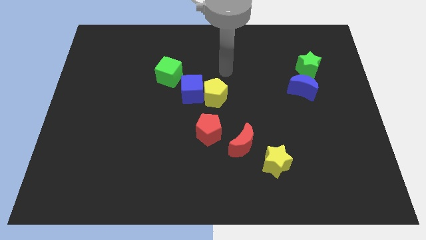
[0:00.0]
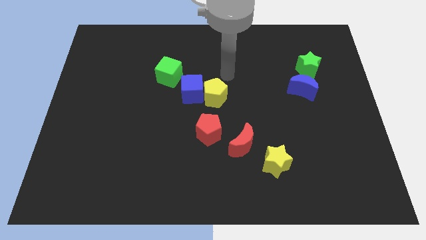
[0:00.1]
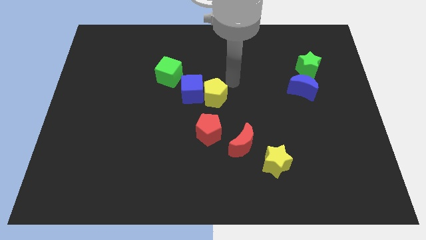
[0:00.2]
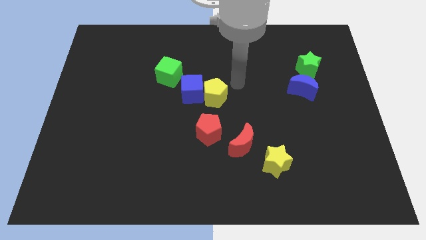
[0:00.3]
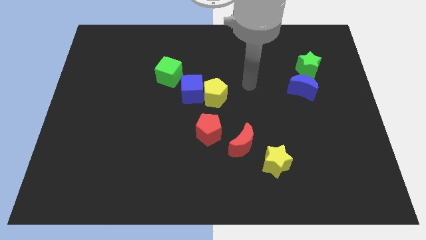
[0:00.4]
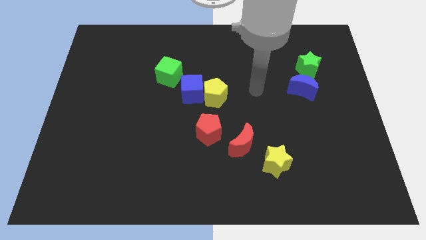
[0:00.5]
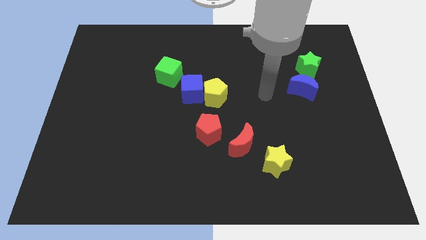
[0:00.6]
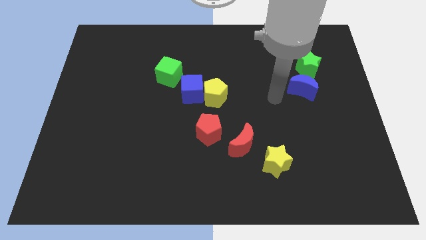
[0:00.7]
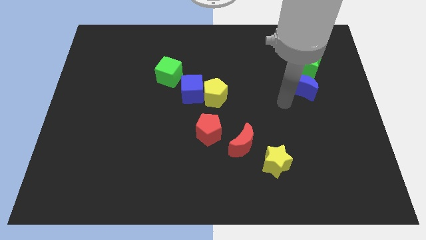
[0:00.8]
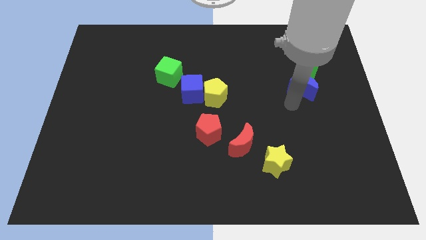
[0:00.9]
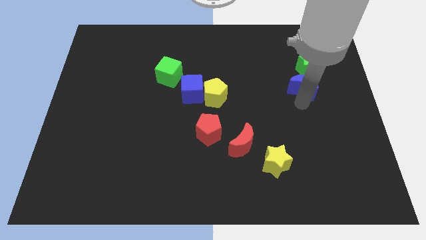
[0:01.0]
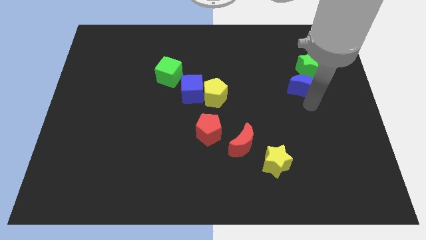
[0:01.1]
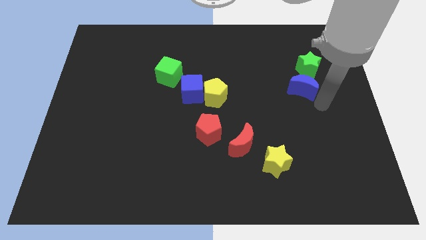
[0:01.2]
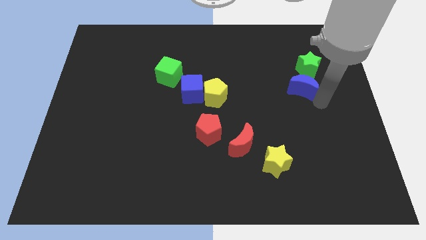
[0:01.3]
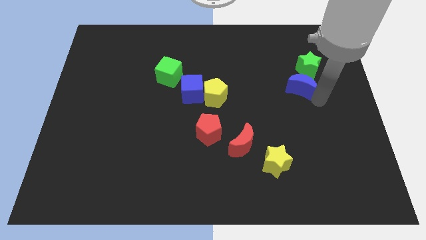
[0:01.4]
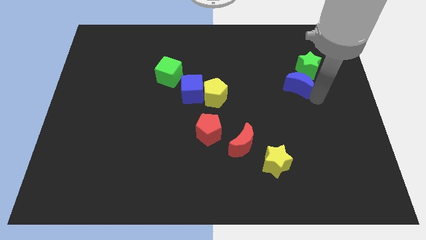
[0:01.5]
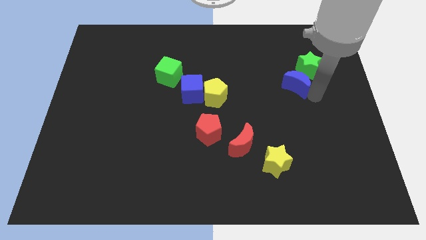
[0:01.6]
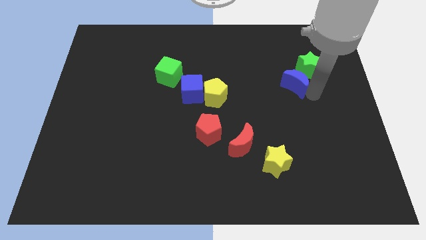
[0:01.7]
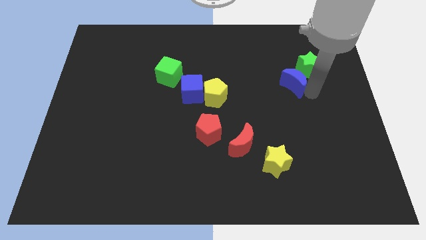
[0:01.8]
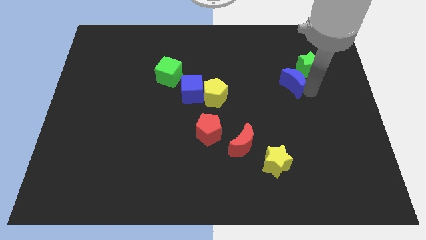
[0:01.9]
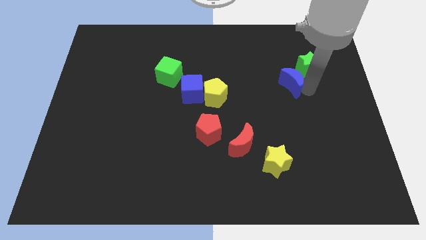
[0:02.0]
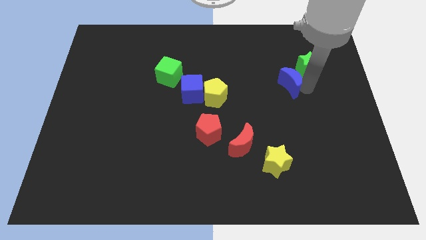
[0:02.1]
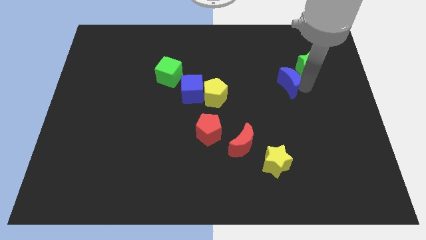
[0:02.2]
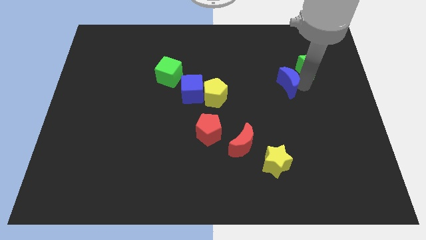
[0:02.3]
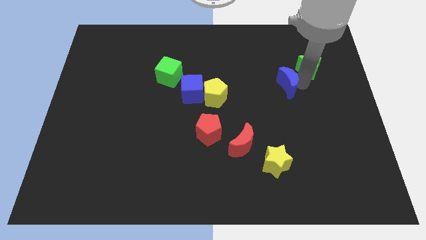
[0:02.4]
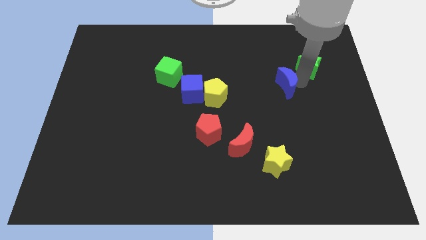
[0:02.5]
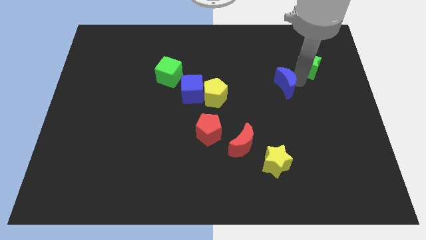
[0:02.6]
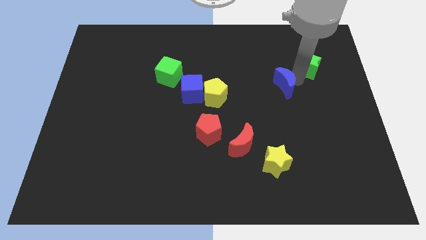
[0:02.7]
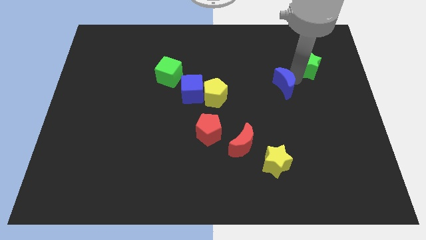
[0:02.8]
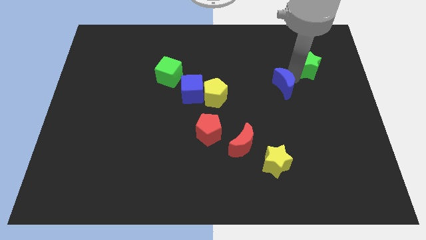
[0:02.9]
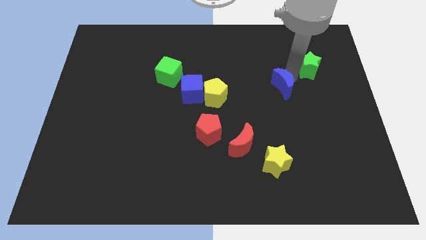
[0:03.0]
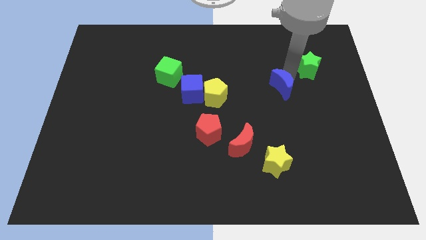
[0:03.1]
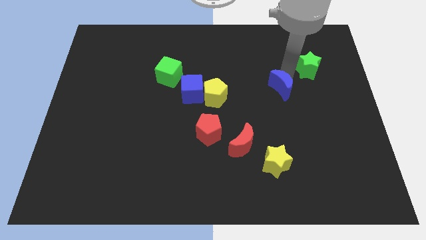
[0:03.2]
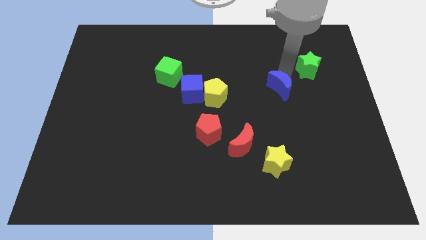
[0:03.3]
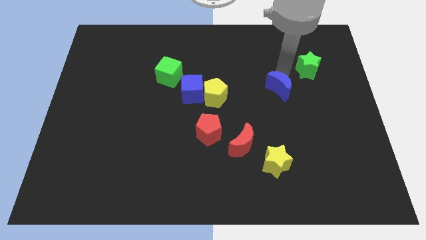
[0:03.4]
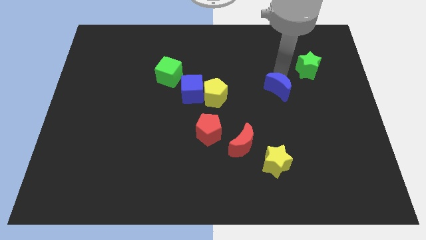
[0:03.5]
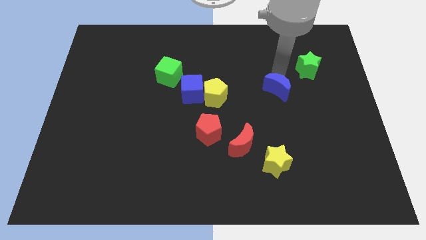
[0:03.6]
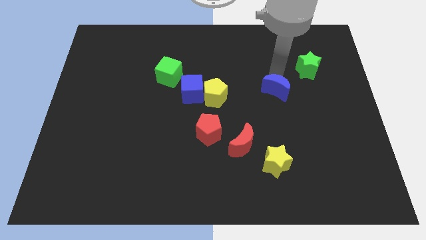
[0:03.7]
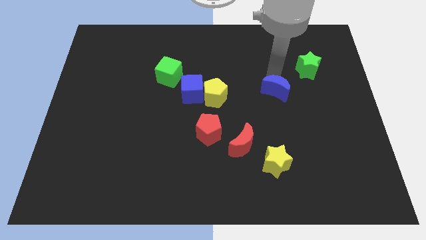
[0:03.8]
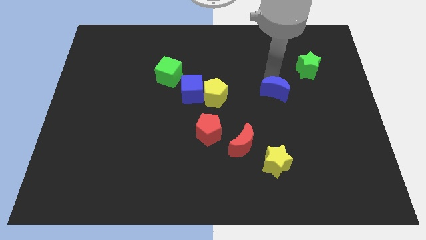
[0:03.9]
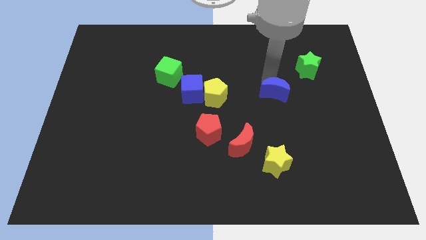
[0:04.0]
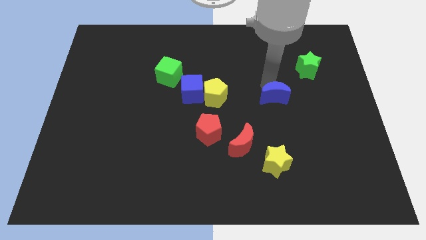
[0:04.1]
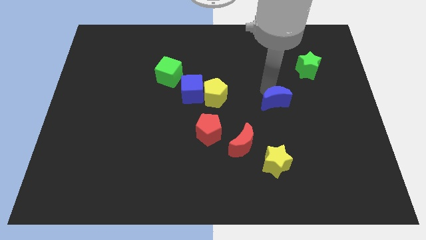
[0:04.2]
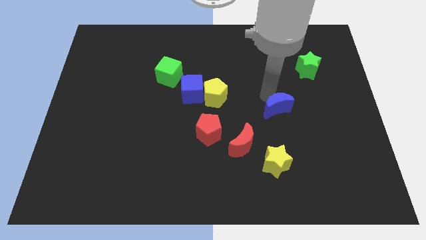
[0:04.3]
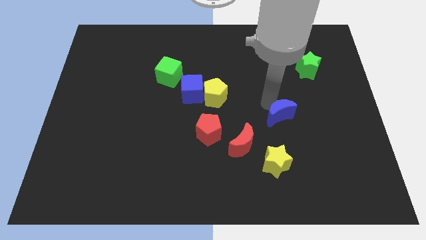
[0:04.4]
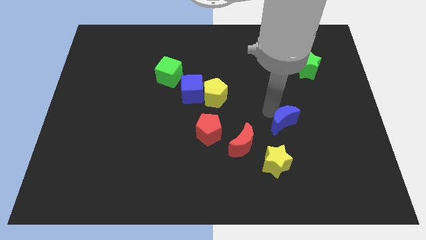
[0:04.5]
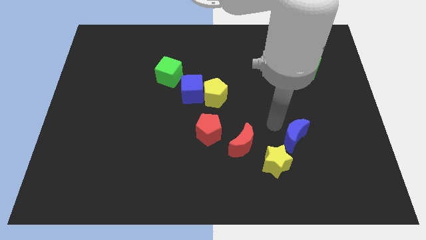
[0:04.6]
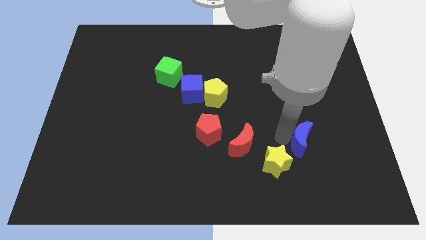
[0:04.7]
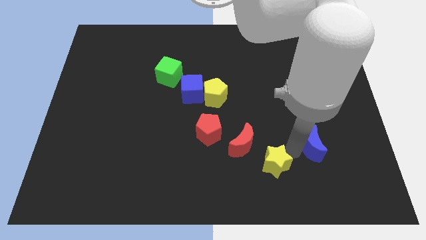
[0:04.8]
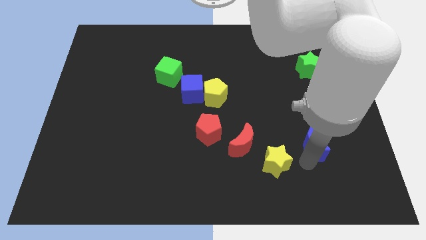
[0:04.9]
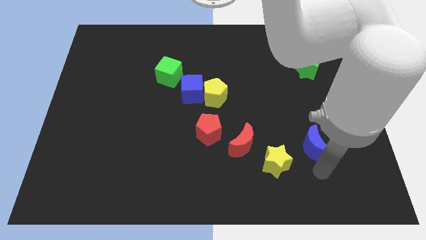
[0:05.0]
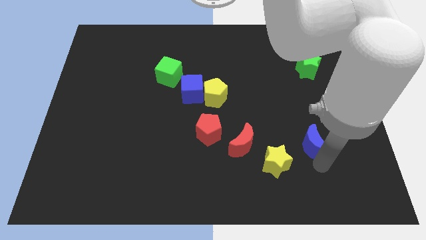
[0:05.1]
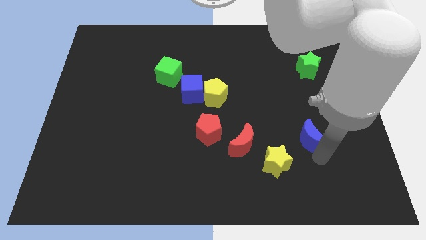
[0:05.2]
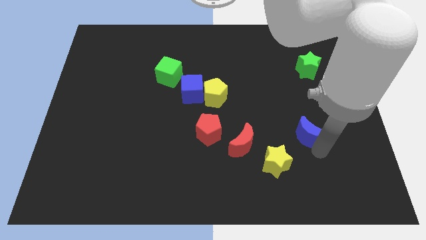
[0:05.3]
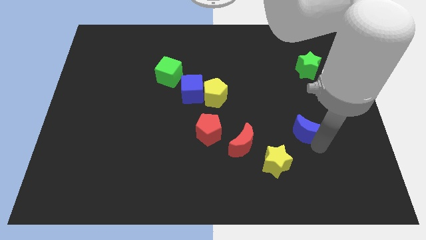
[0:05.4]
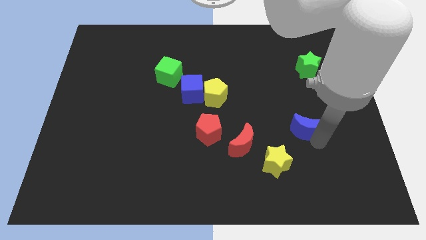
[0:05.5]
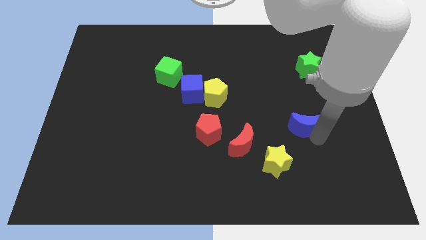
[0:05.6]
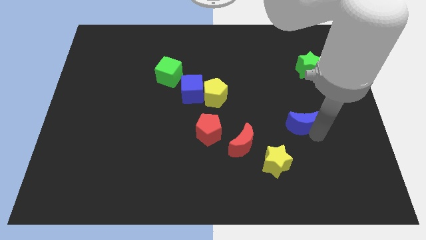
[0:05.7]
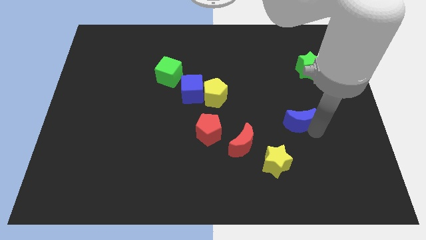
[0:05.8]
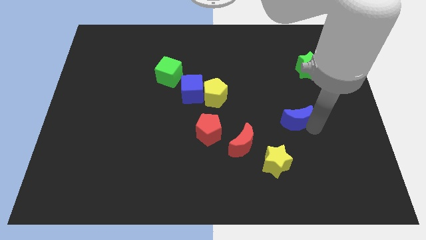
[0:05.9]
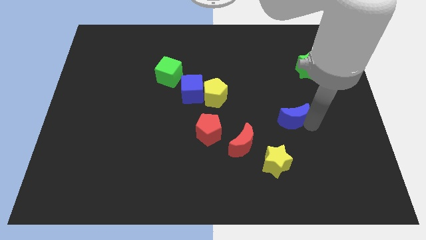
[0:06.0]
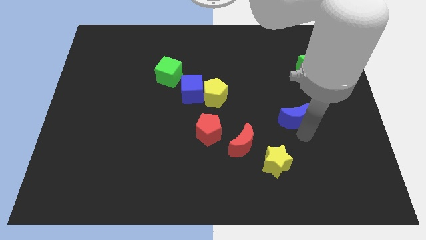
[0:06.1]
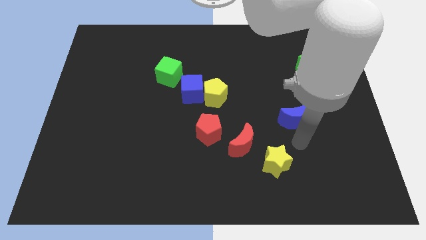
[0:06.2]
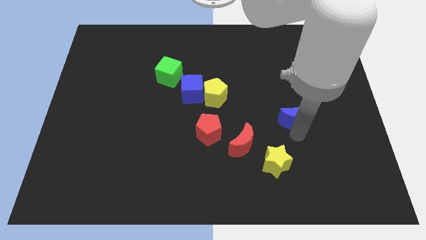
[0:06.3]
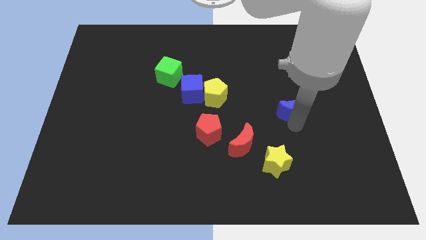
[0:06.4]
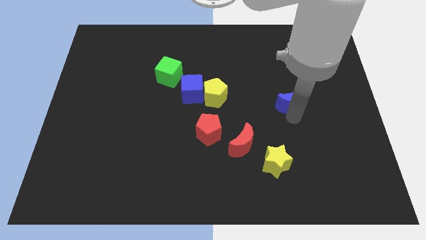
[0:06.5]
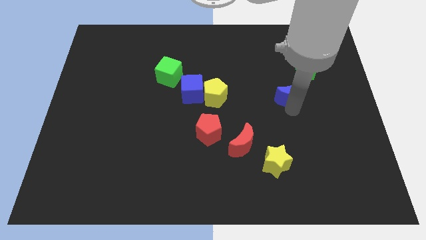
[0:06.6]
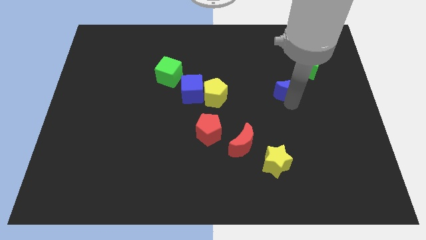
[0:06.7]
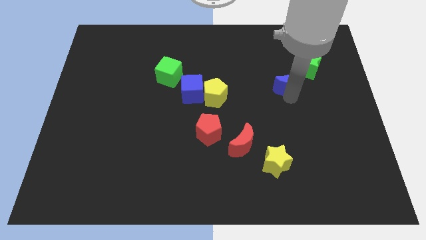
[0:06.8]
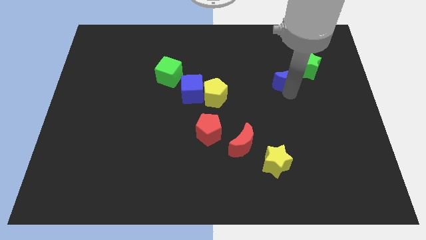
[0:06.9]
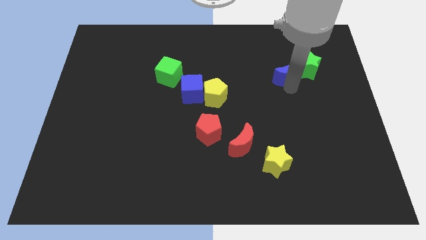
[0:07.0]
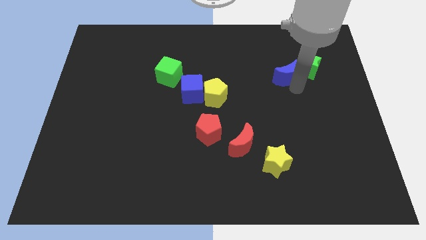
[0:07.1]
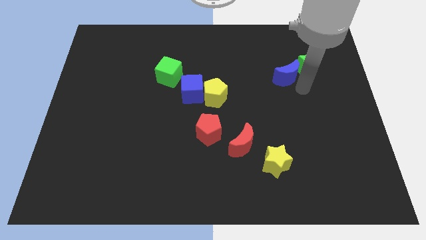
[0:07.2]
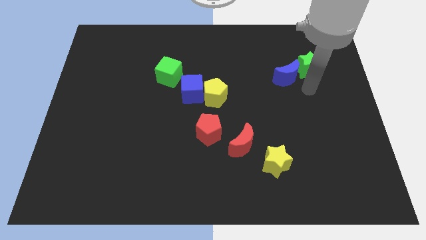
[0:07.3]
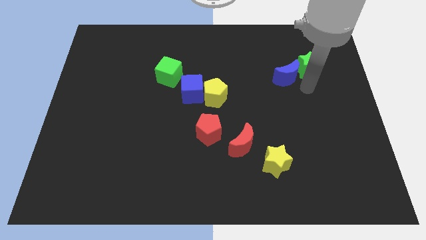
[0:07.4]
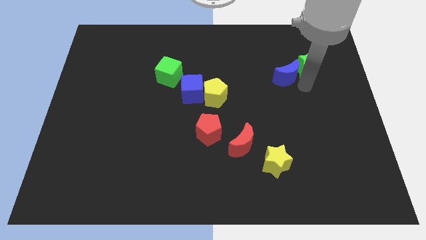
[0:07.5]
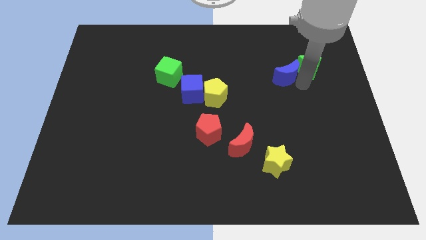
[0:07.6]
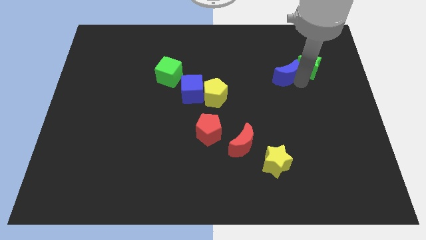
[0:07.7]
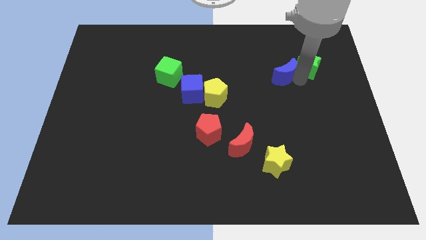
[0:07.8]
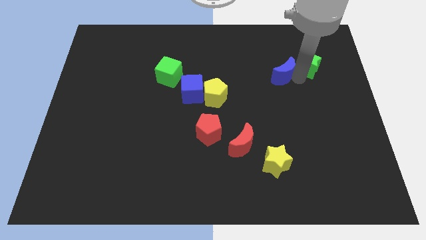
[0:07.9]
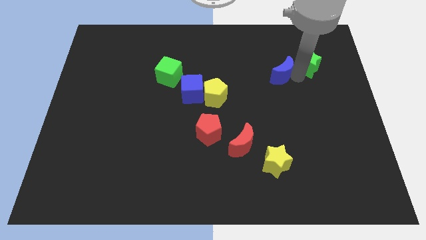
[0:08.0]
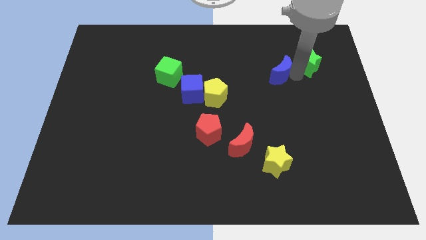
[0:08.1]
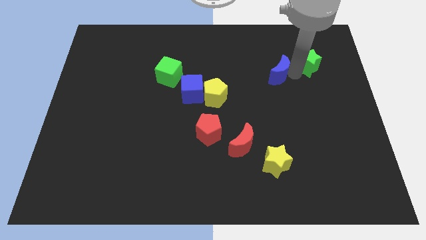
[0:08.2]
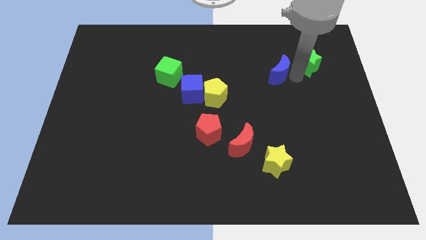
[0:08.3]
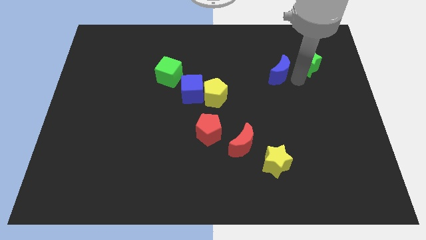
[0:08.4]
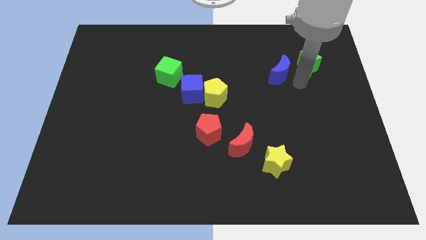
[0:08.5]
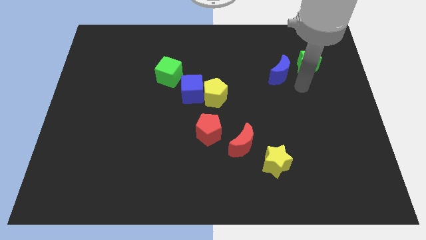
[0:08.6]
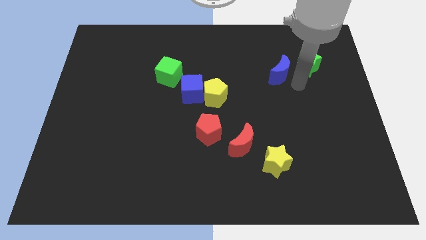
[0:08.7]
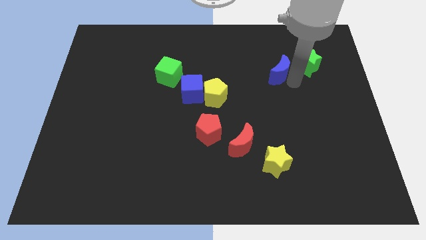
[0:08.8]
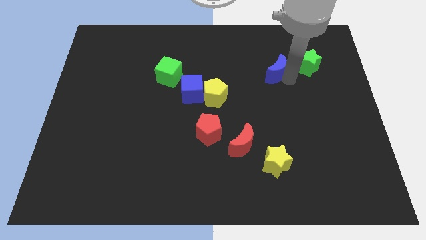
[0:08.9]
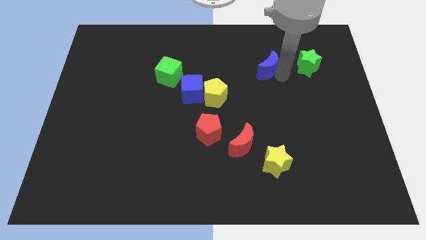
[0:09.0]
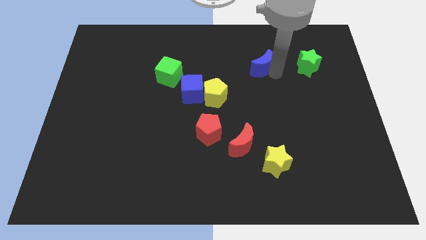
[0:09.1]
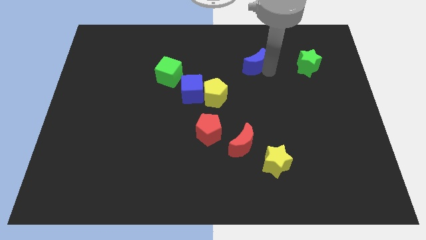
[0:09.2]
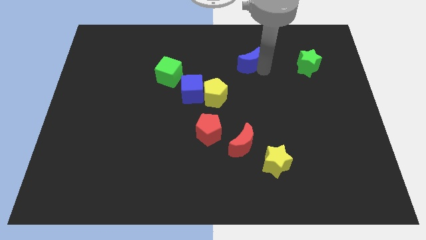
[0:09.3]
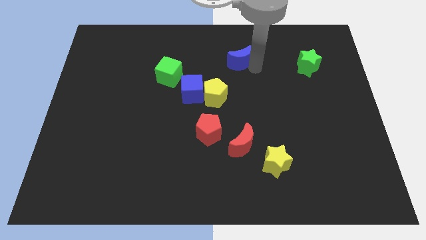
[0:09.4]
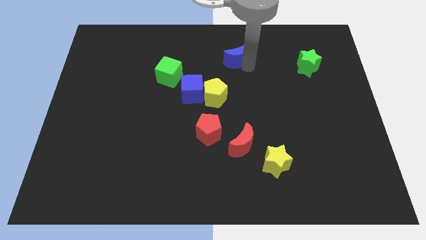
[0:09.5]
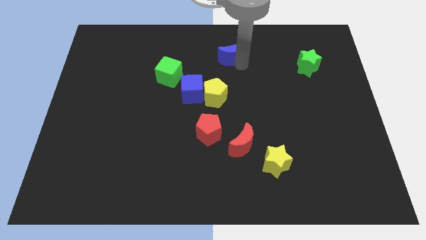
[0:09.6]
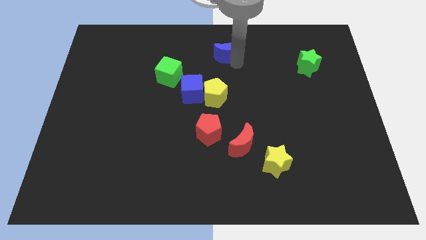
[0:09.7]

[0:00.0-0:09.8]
move the blue moon to the top side
